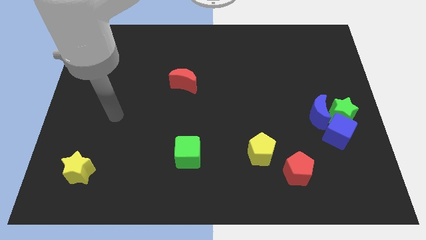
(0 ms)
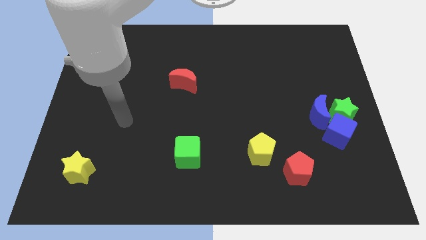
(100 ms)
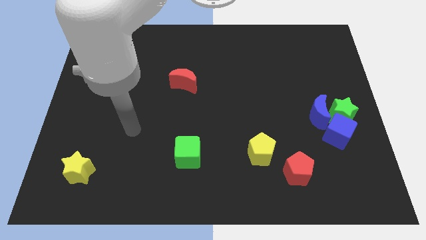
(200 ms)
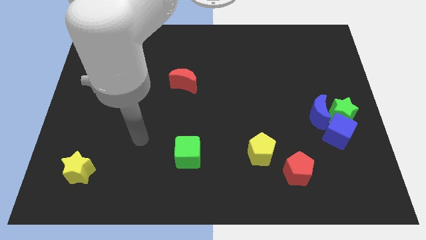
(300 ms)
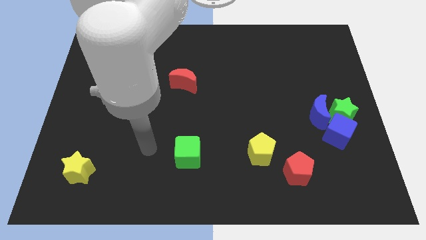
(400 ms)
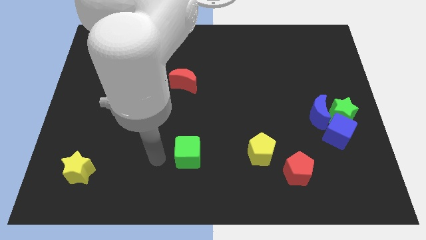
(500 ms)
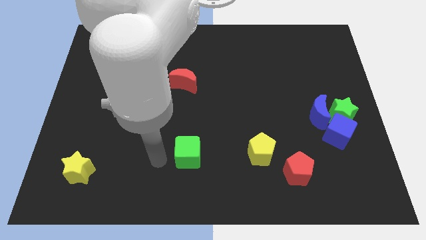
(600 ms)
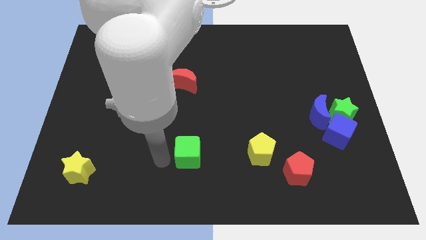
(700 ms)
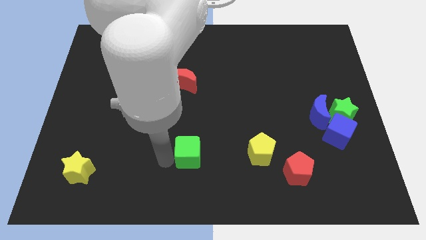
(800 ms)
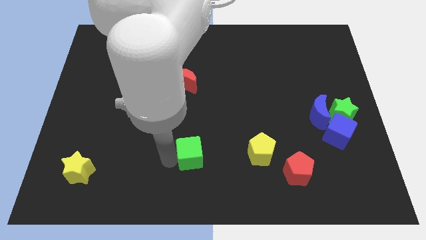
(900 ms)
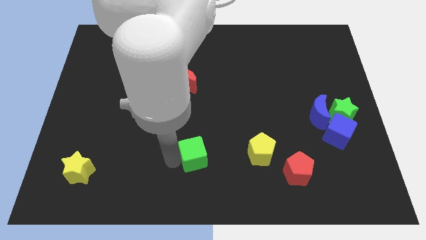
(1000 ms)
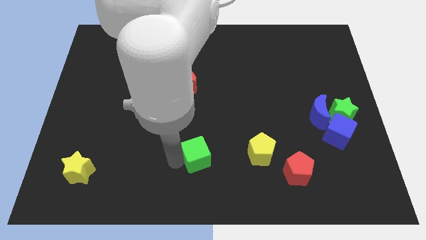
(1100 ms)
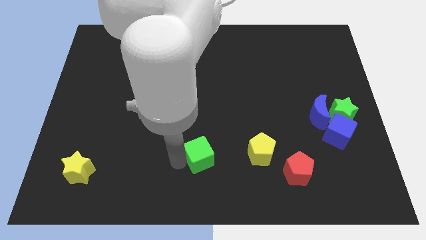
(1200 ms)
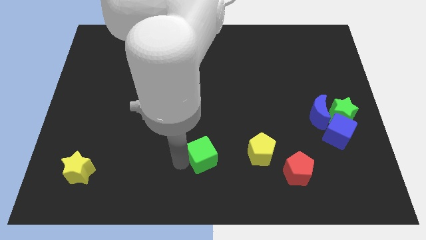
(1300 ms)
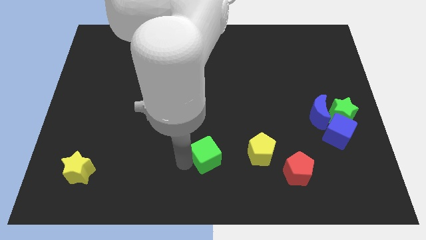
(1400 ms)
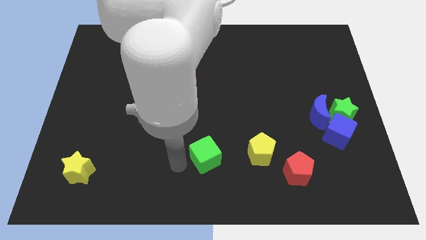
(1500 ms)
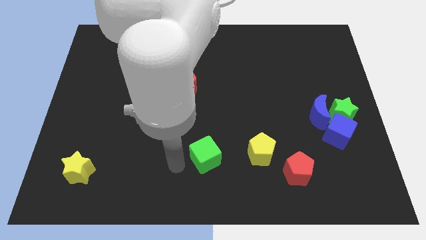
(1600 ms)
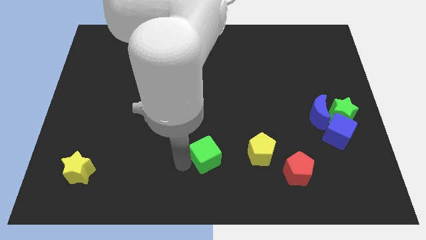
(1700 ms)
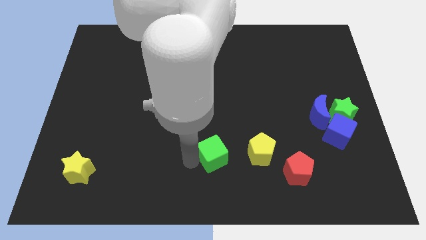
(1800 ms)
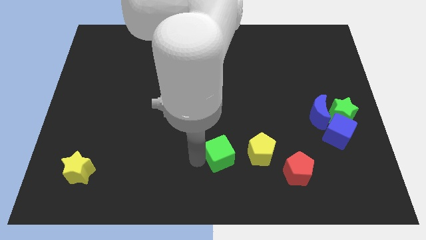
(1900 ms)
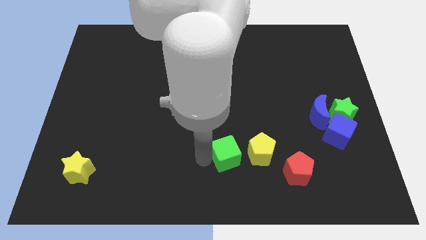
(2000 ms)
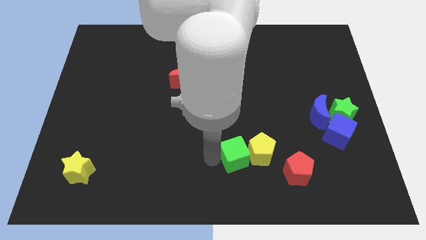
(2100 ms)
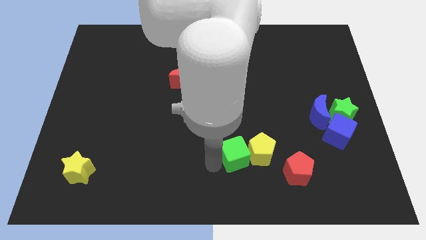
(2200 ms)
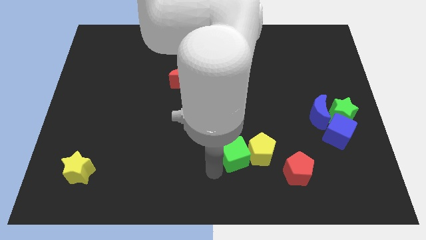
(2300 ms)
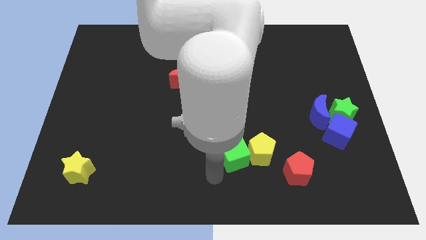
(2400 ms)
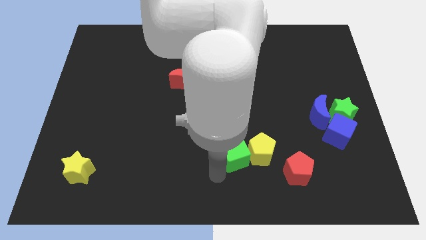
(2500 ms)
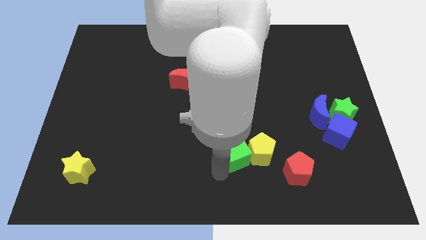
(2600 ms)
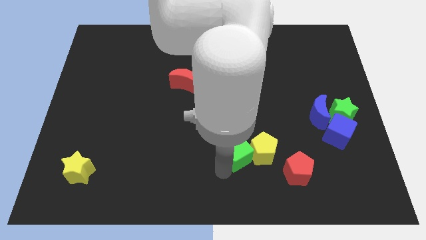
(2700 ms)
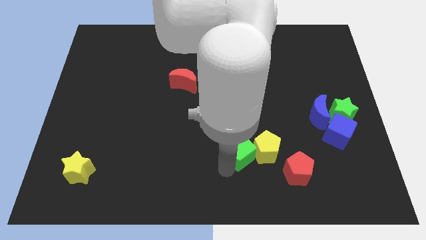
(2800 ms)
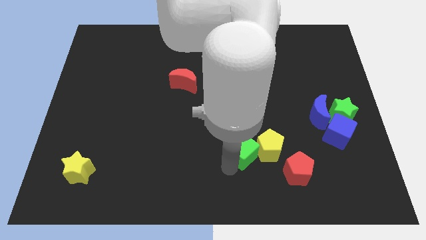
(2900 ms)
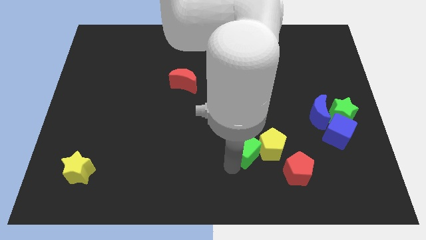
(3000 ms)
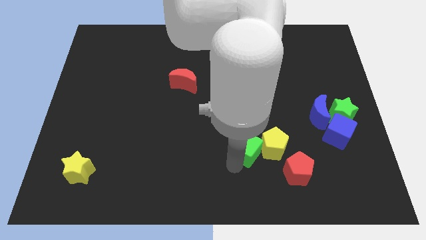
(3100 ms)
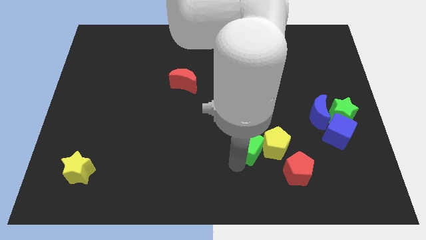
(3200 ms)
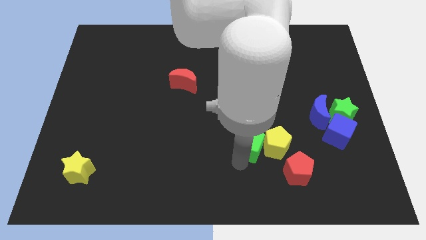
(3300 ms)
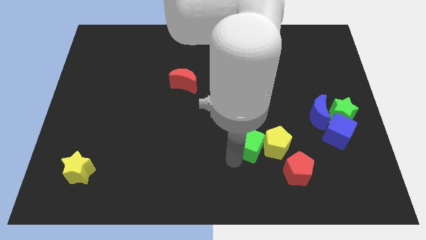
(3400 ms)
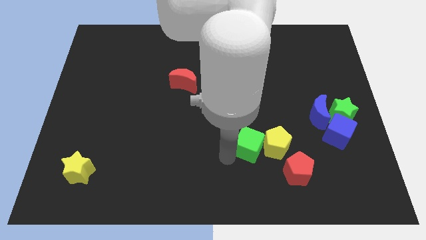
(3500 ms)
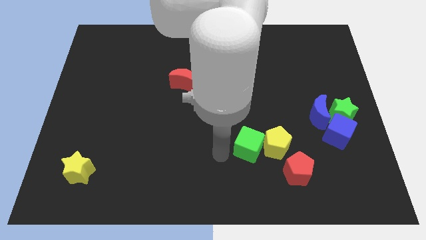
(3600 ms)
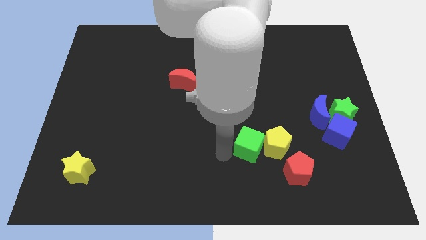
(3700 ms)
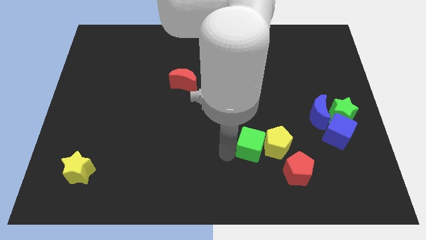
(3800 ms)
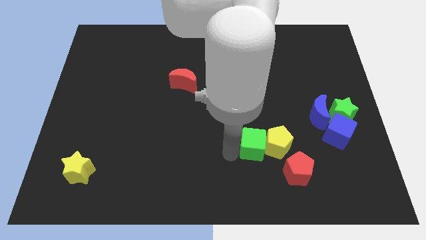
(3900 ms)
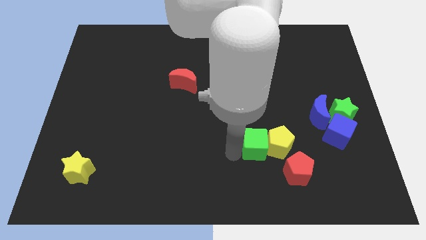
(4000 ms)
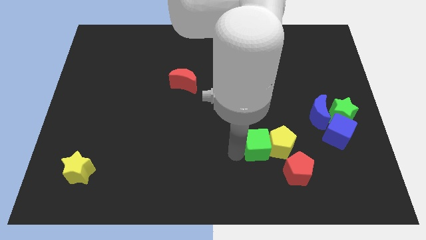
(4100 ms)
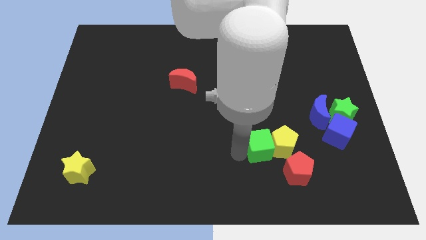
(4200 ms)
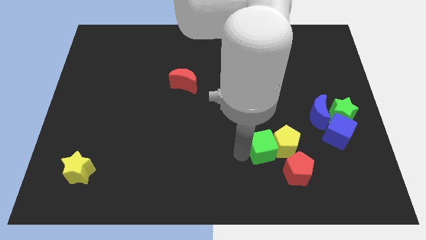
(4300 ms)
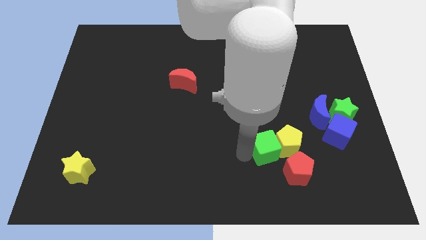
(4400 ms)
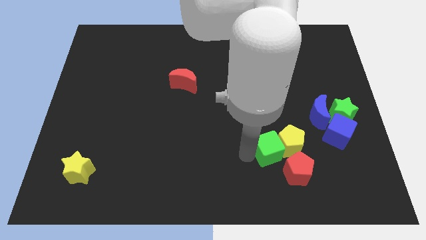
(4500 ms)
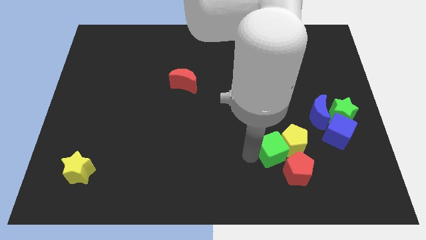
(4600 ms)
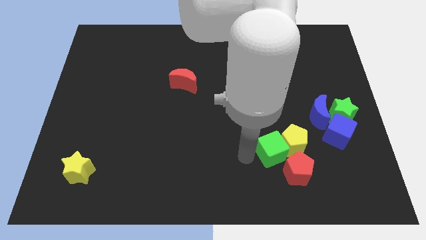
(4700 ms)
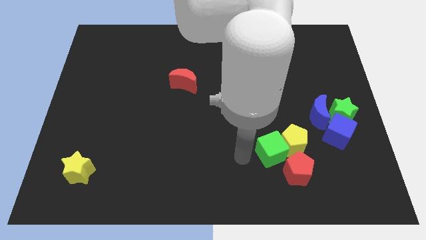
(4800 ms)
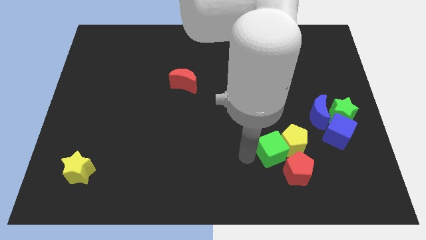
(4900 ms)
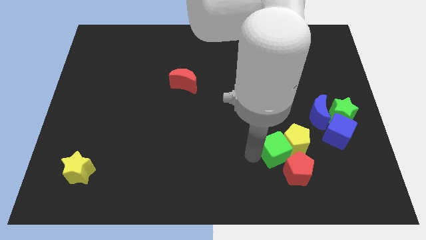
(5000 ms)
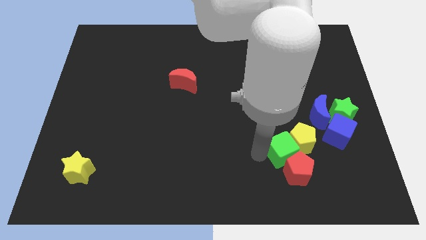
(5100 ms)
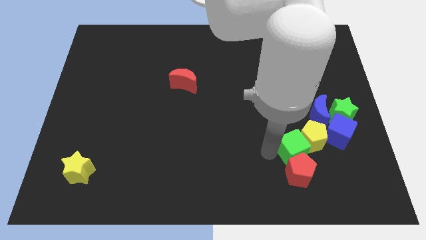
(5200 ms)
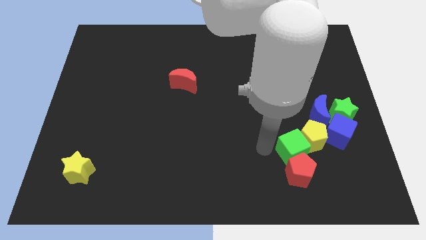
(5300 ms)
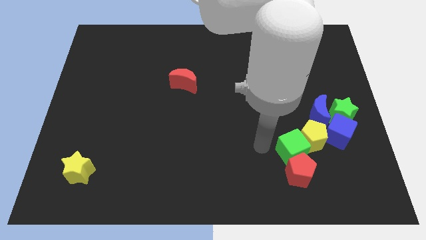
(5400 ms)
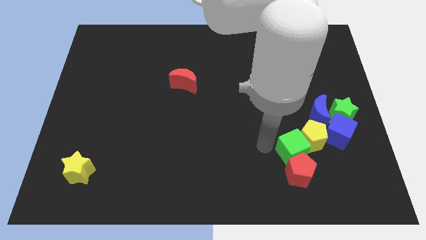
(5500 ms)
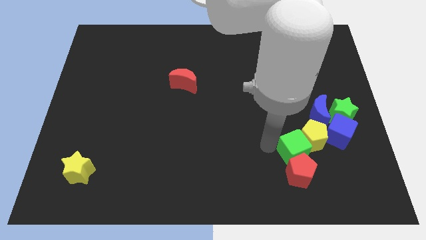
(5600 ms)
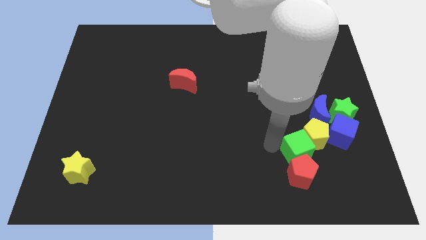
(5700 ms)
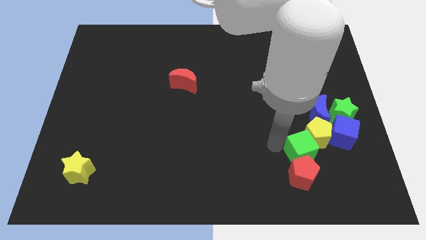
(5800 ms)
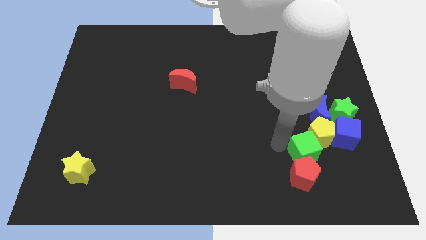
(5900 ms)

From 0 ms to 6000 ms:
move the green cube below the blue moon
